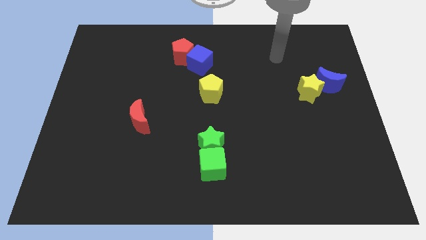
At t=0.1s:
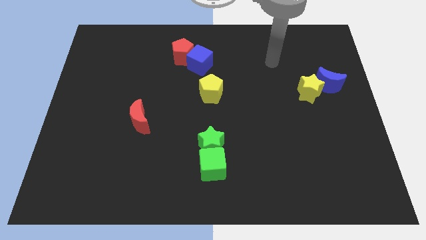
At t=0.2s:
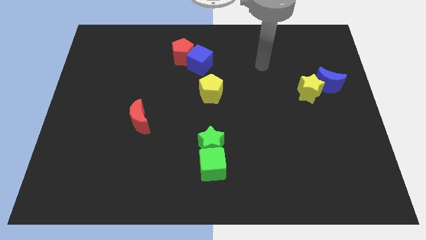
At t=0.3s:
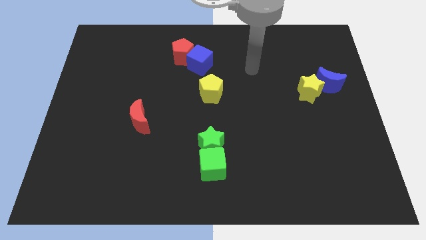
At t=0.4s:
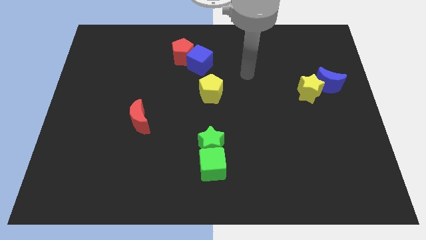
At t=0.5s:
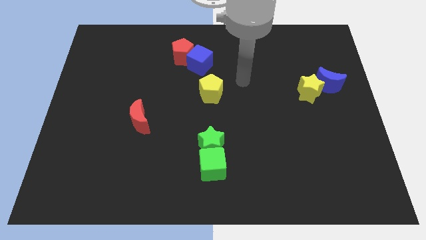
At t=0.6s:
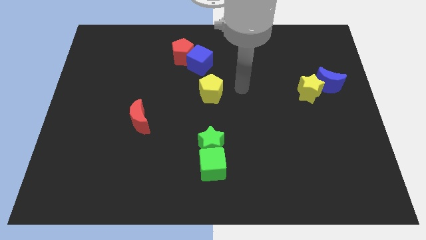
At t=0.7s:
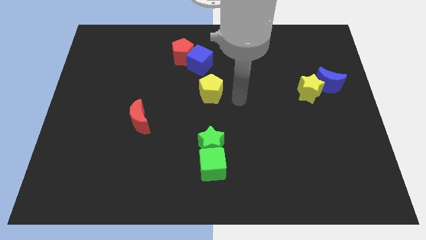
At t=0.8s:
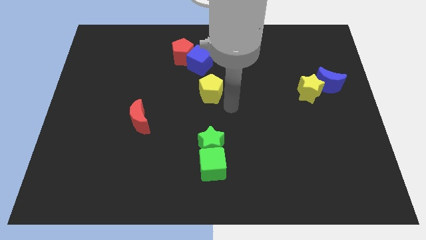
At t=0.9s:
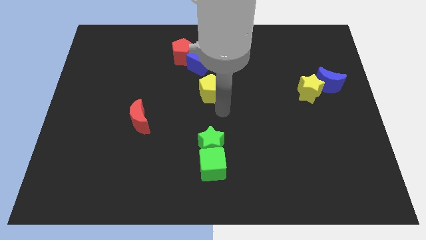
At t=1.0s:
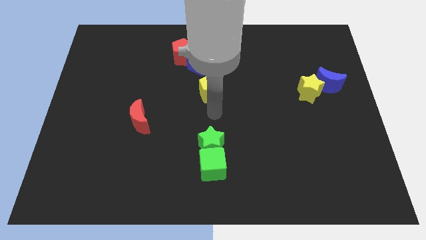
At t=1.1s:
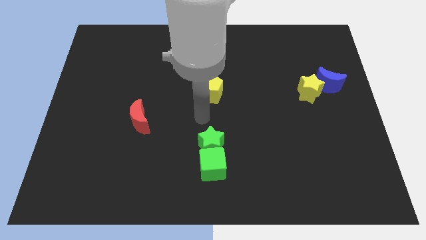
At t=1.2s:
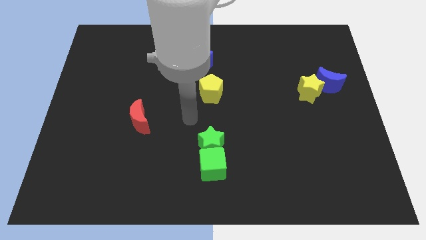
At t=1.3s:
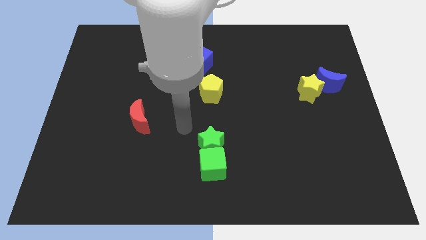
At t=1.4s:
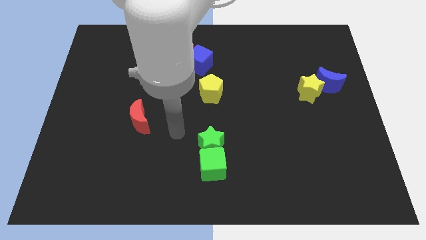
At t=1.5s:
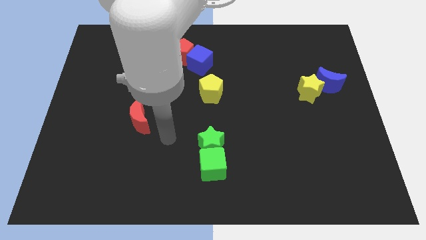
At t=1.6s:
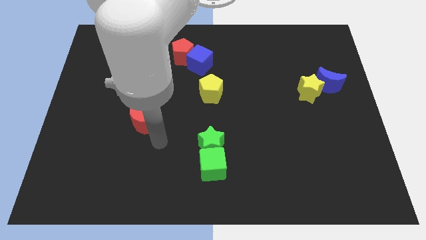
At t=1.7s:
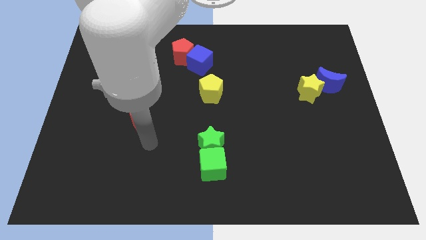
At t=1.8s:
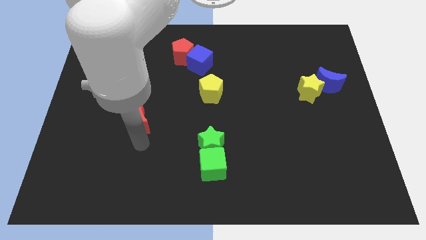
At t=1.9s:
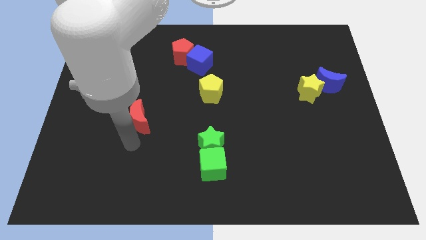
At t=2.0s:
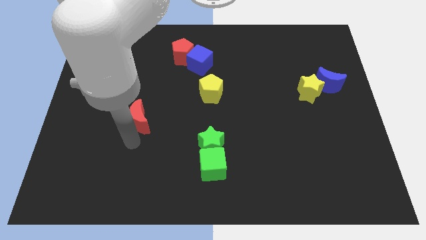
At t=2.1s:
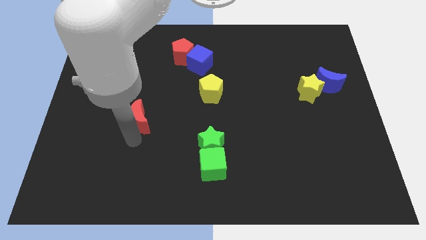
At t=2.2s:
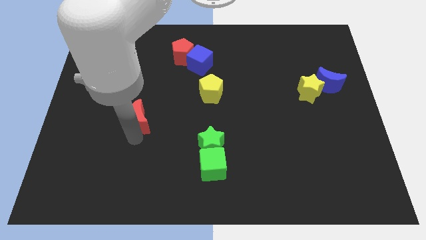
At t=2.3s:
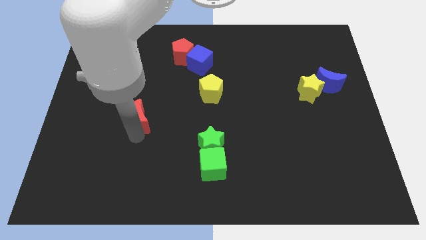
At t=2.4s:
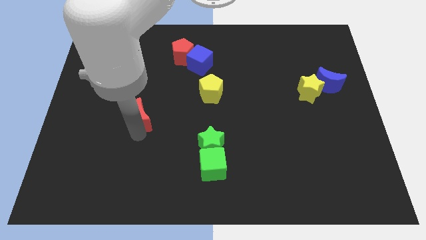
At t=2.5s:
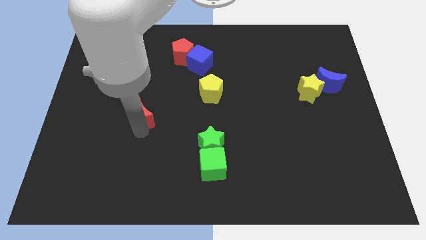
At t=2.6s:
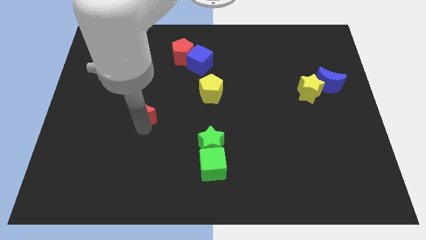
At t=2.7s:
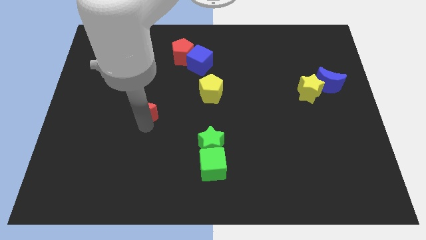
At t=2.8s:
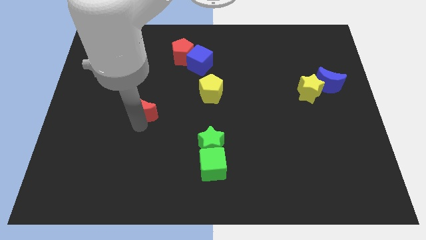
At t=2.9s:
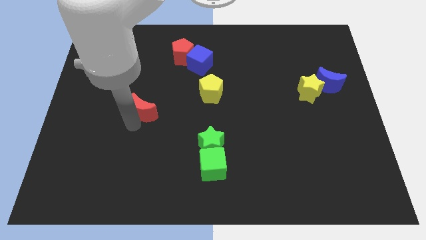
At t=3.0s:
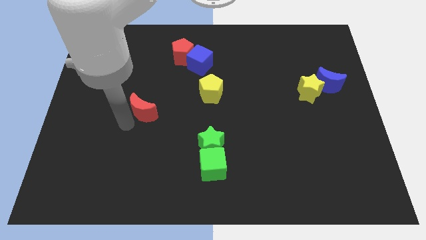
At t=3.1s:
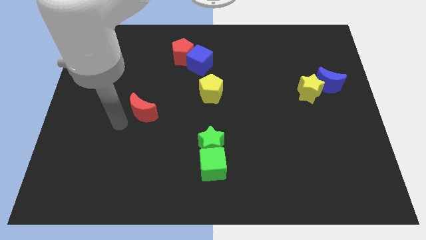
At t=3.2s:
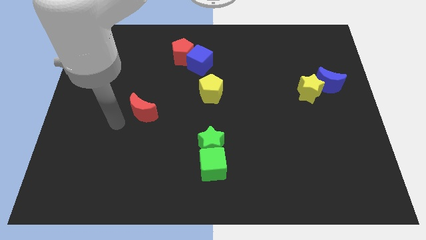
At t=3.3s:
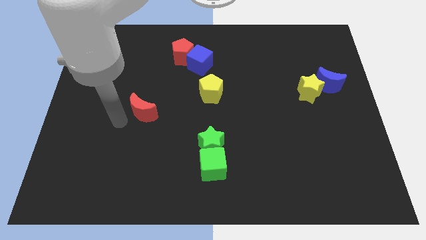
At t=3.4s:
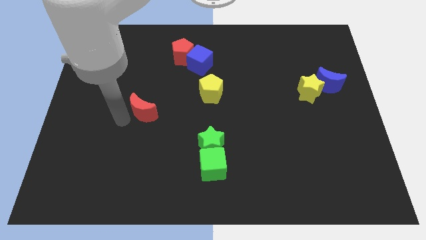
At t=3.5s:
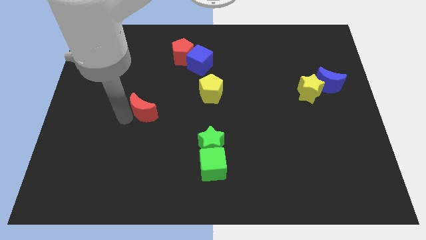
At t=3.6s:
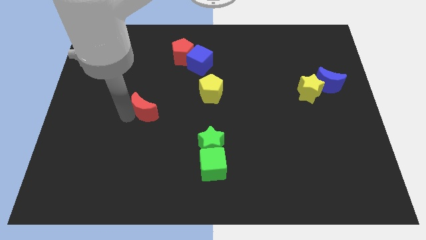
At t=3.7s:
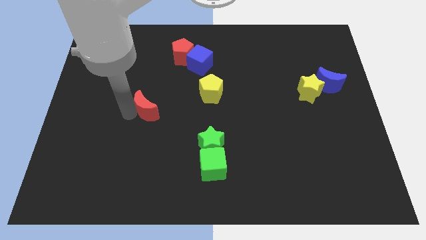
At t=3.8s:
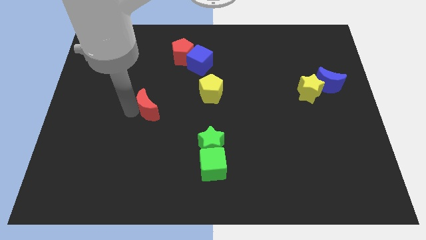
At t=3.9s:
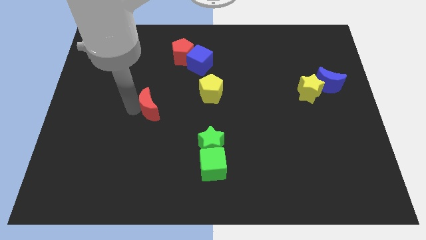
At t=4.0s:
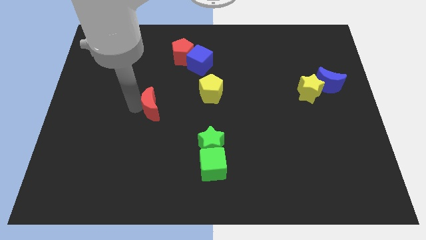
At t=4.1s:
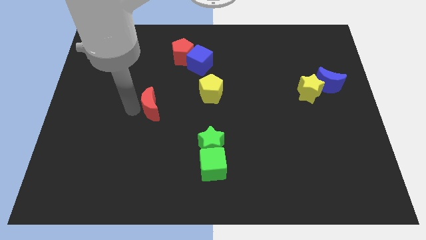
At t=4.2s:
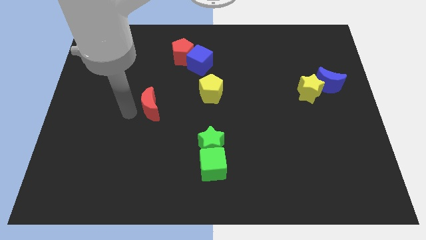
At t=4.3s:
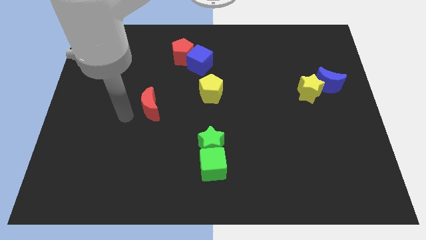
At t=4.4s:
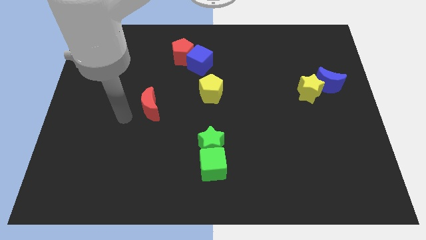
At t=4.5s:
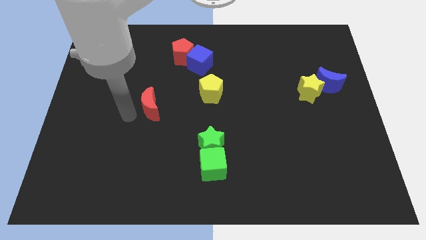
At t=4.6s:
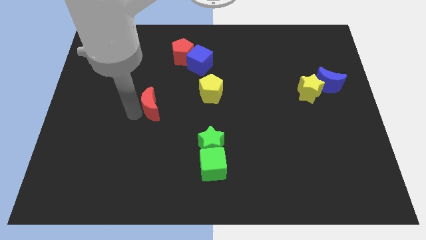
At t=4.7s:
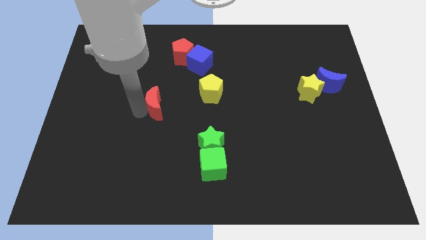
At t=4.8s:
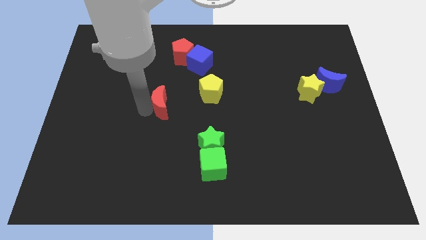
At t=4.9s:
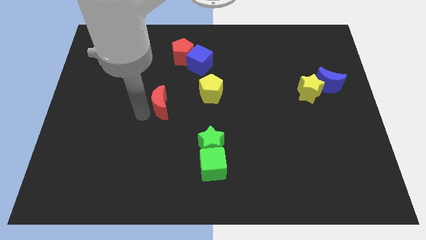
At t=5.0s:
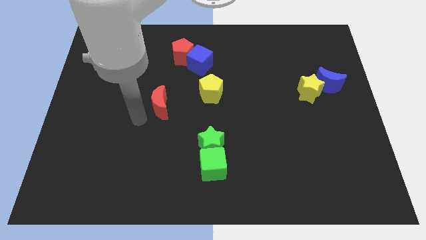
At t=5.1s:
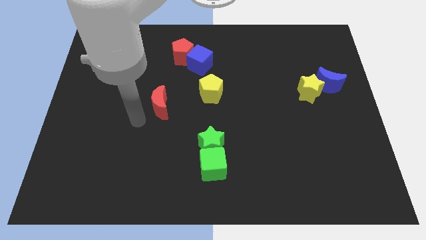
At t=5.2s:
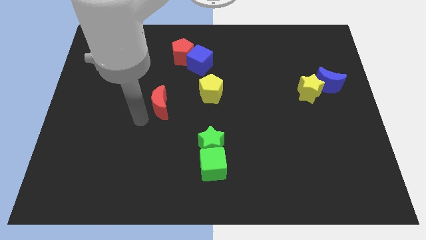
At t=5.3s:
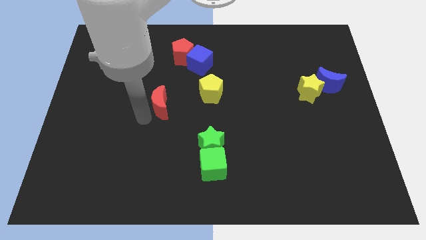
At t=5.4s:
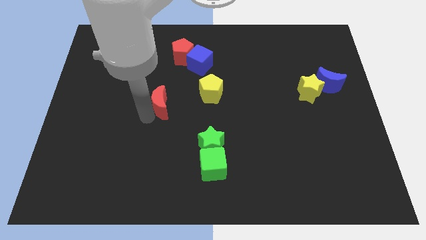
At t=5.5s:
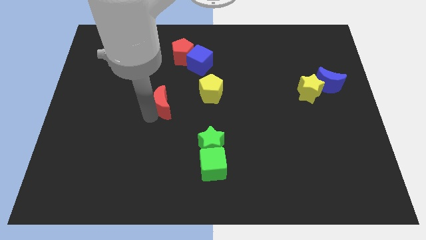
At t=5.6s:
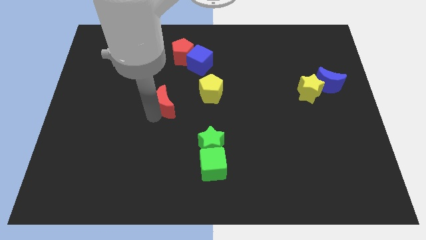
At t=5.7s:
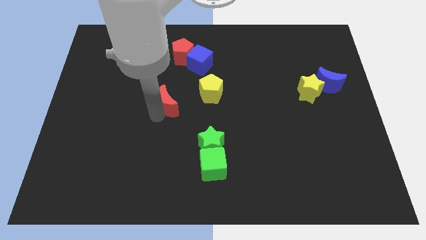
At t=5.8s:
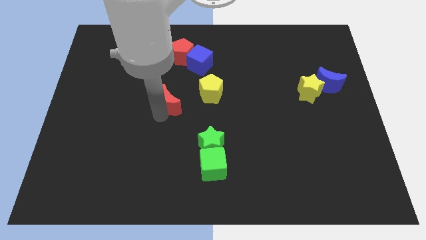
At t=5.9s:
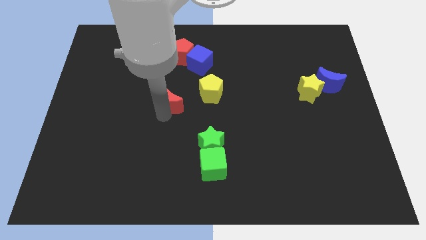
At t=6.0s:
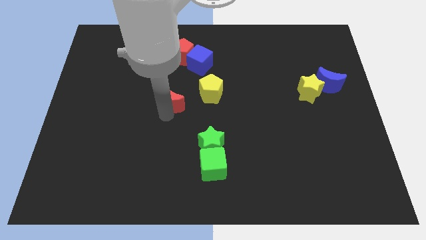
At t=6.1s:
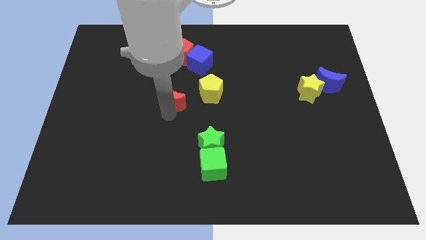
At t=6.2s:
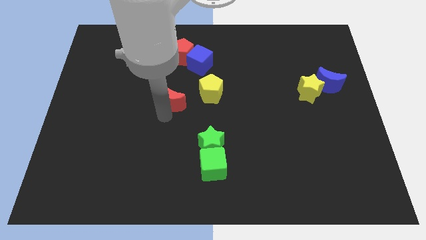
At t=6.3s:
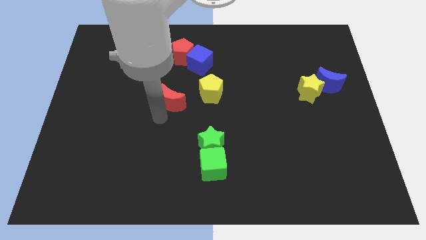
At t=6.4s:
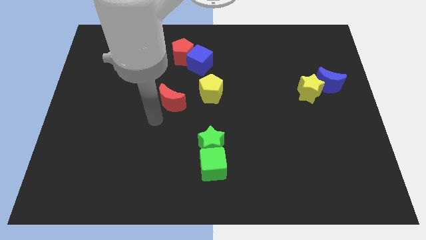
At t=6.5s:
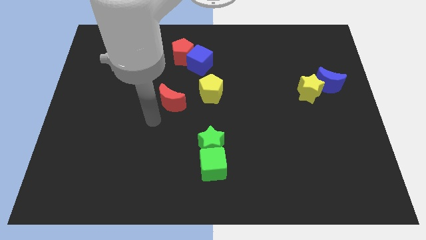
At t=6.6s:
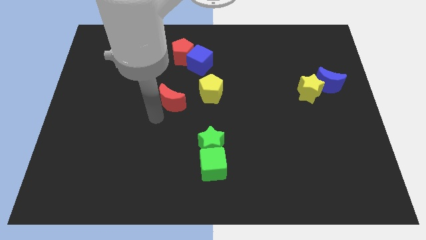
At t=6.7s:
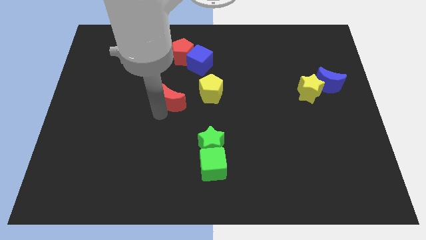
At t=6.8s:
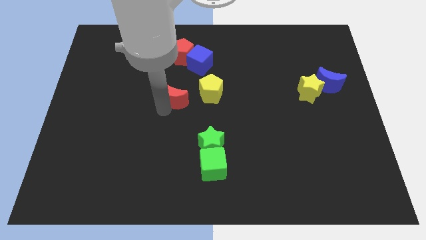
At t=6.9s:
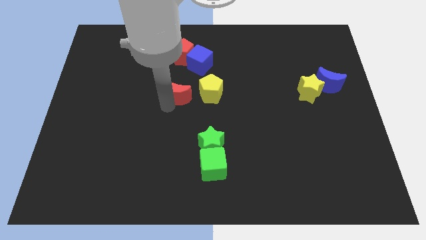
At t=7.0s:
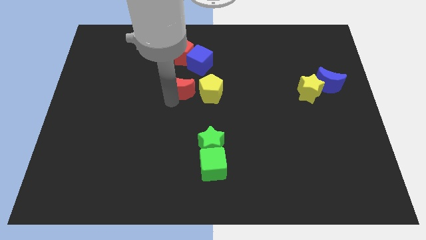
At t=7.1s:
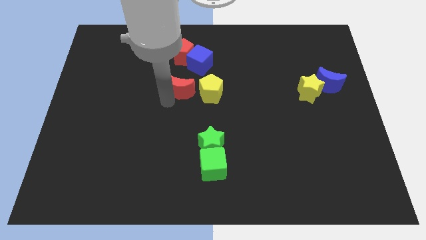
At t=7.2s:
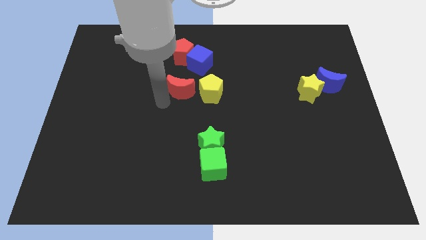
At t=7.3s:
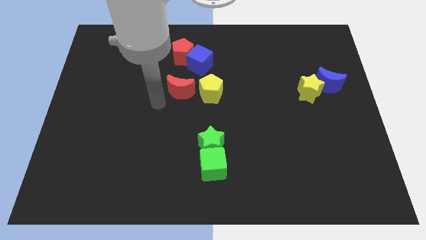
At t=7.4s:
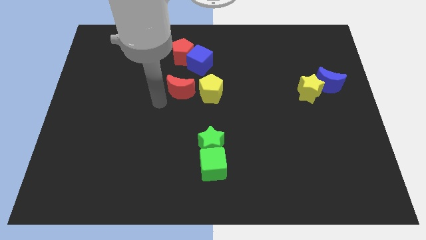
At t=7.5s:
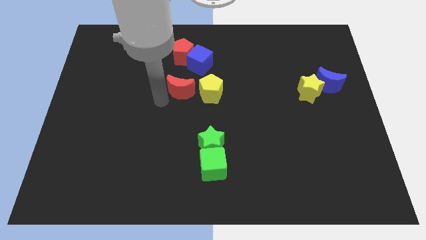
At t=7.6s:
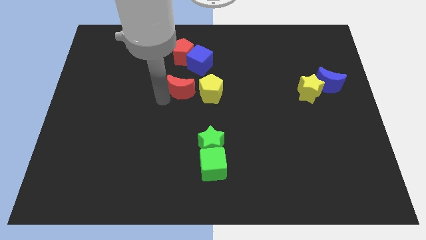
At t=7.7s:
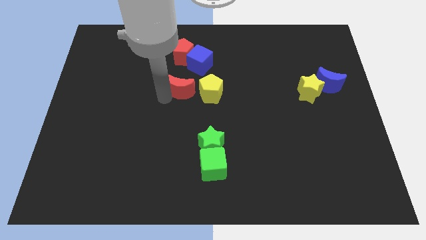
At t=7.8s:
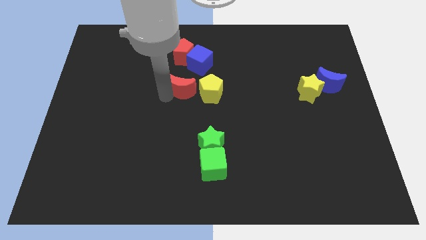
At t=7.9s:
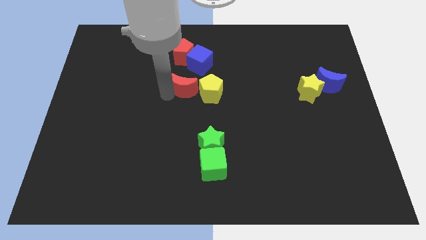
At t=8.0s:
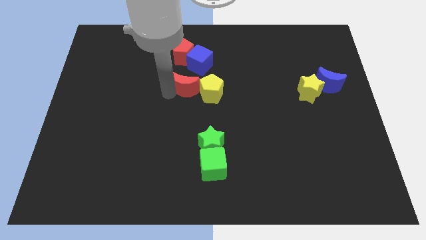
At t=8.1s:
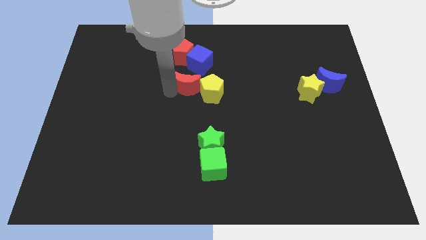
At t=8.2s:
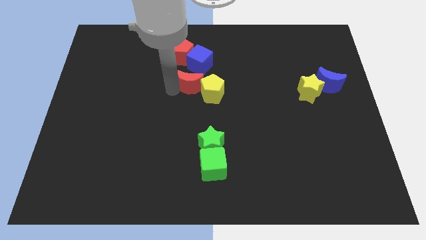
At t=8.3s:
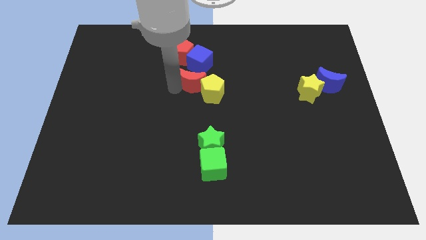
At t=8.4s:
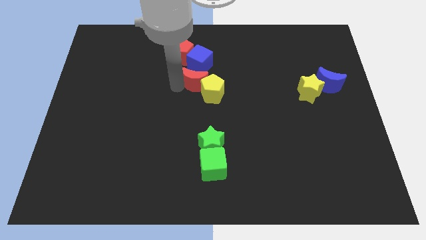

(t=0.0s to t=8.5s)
push the red moon diagonally down and to the right of the red pentagon
